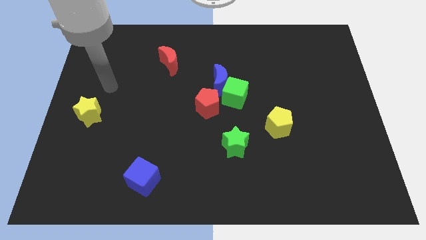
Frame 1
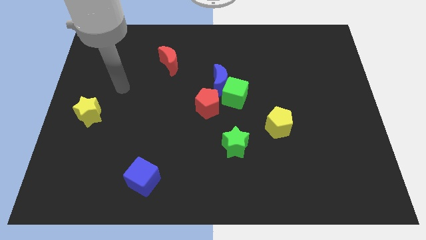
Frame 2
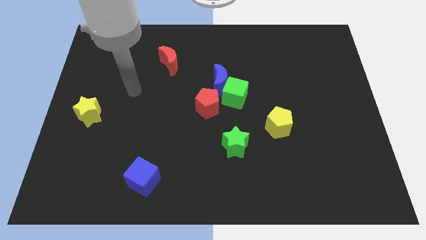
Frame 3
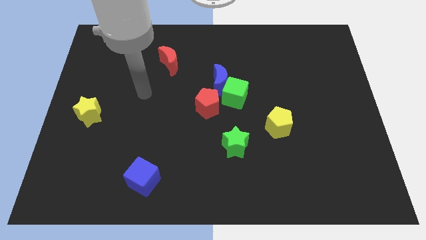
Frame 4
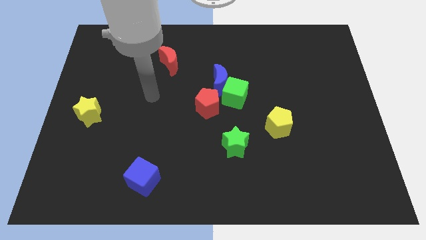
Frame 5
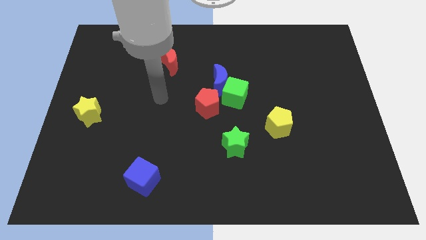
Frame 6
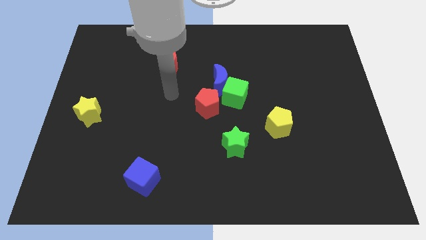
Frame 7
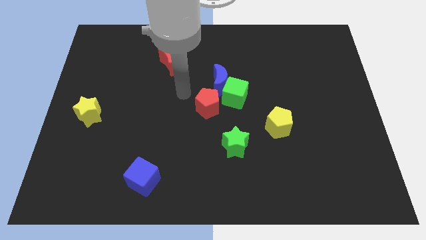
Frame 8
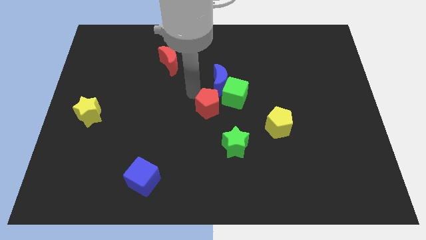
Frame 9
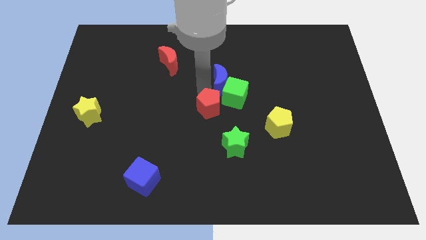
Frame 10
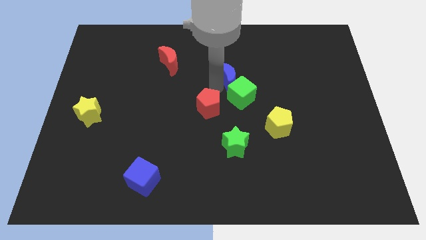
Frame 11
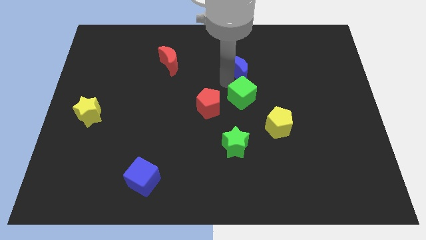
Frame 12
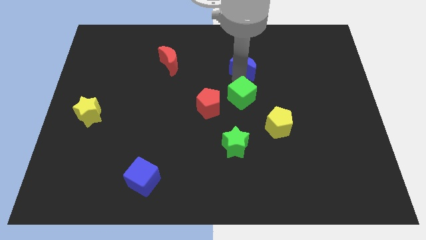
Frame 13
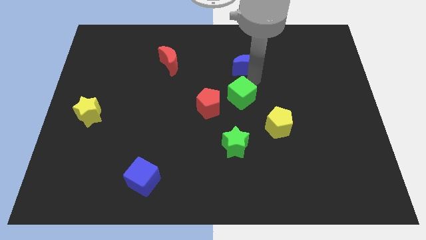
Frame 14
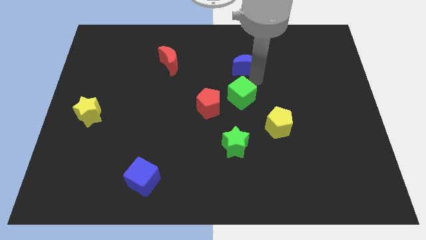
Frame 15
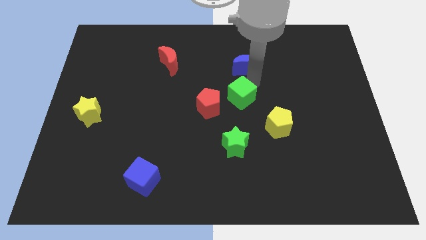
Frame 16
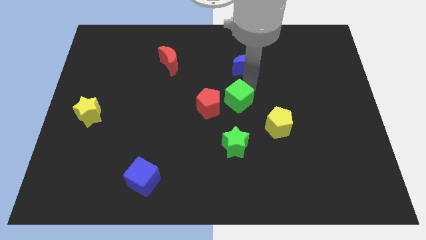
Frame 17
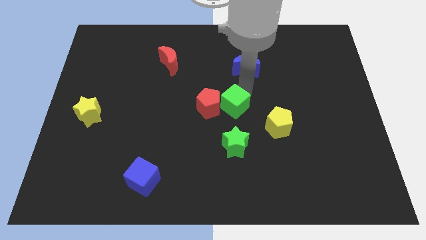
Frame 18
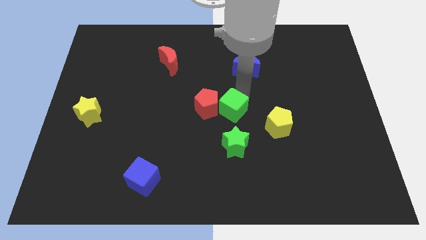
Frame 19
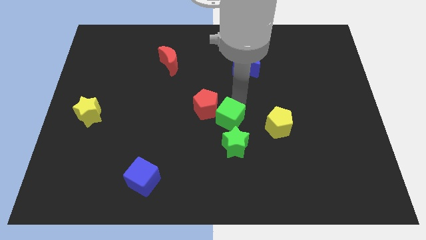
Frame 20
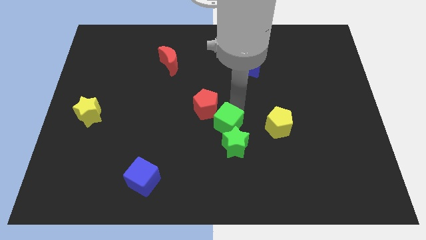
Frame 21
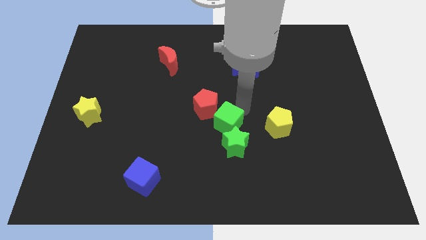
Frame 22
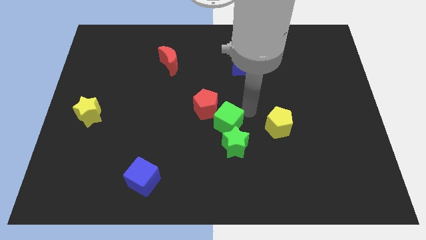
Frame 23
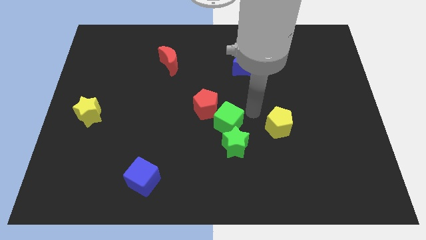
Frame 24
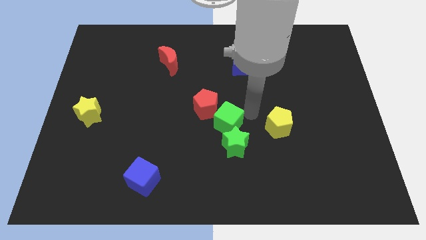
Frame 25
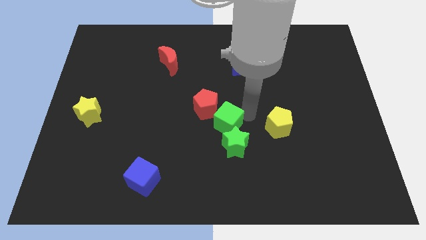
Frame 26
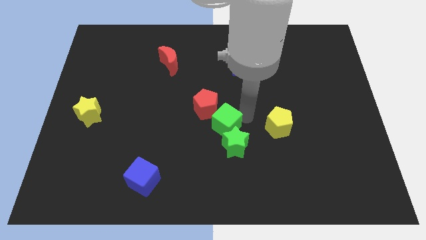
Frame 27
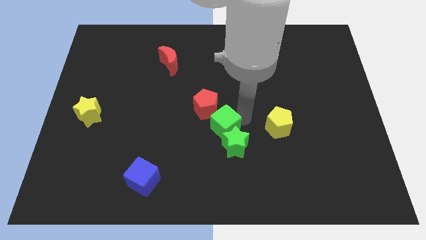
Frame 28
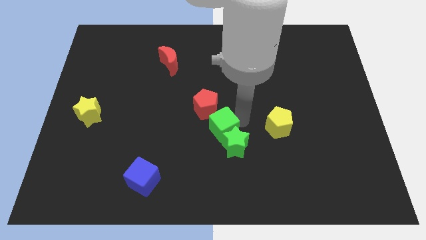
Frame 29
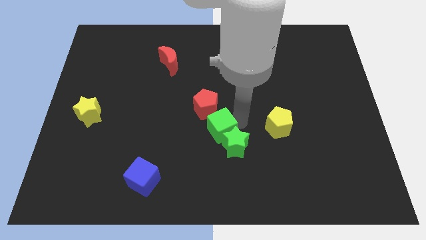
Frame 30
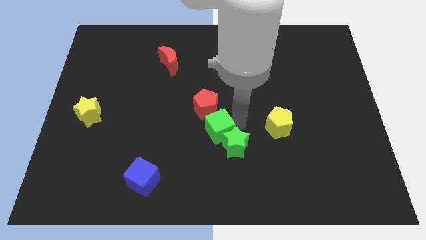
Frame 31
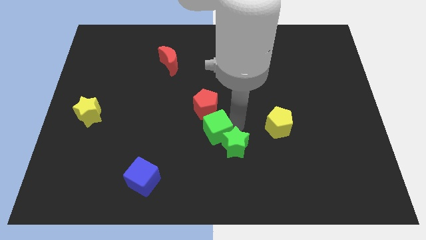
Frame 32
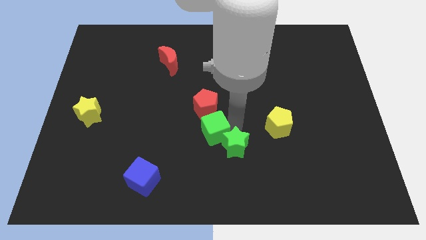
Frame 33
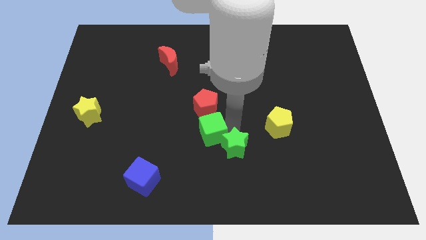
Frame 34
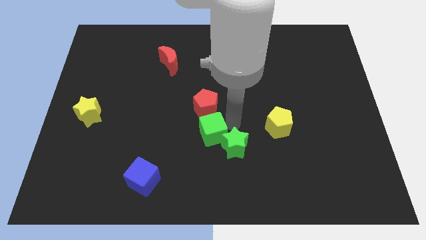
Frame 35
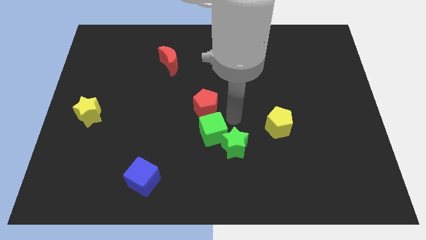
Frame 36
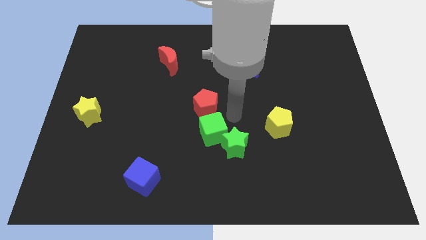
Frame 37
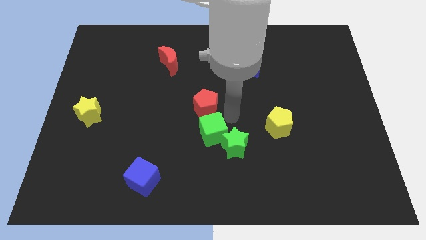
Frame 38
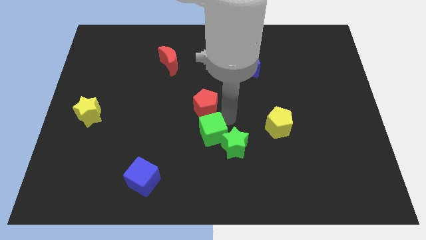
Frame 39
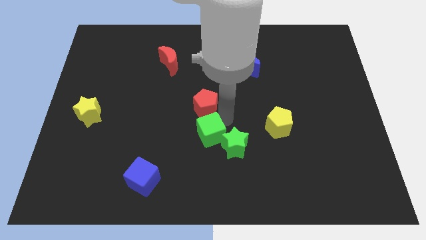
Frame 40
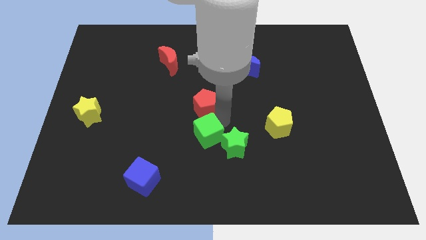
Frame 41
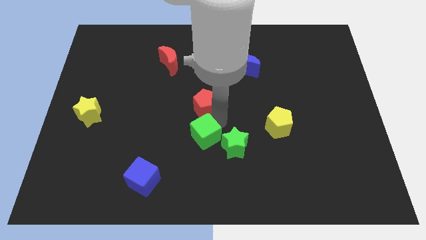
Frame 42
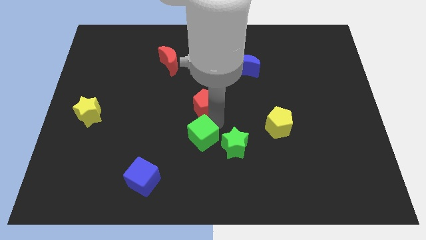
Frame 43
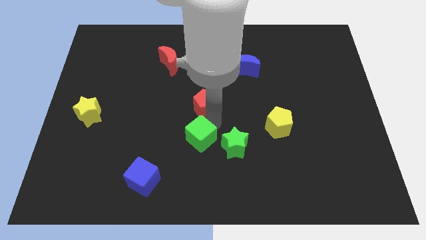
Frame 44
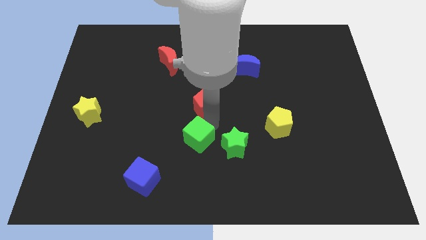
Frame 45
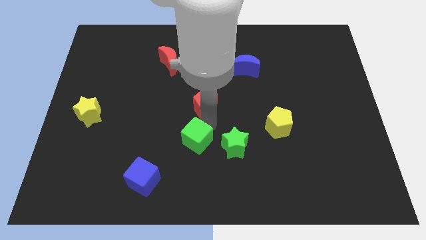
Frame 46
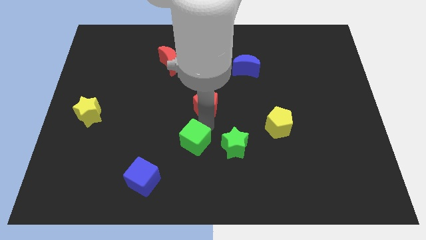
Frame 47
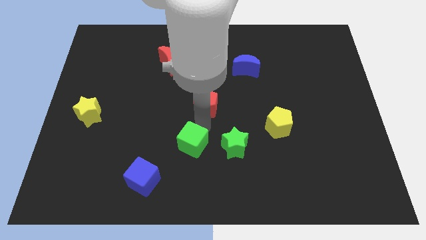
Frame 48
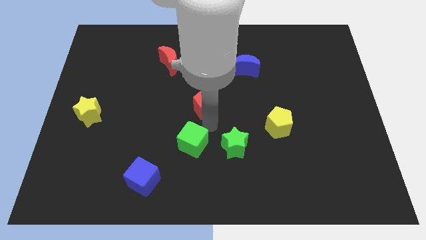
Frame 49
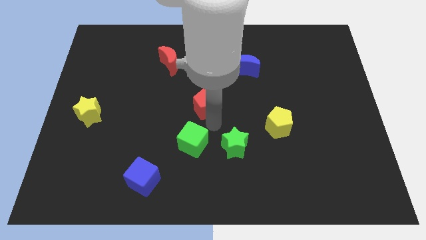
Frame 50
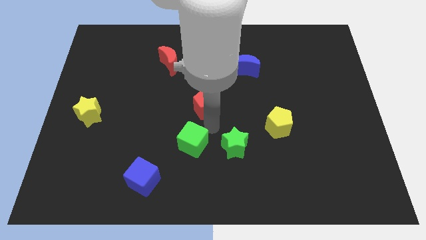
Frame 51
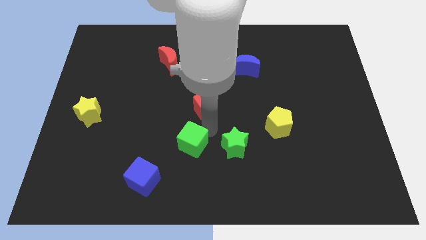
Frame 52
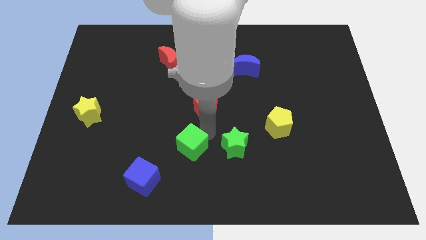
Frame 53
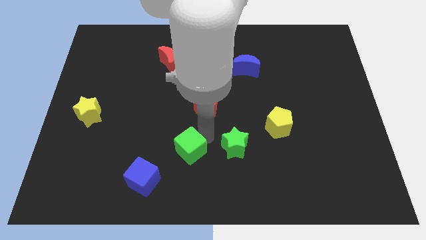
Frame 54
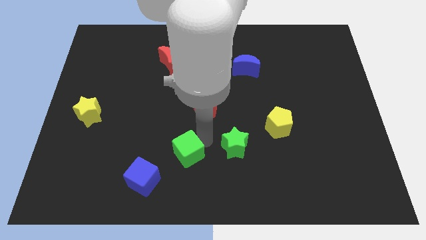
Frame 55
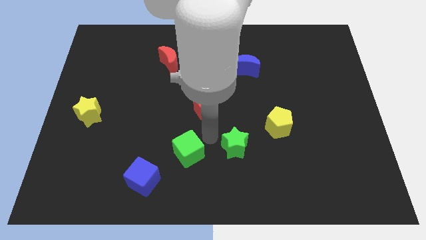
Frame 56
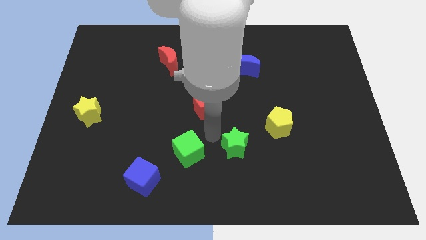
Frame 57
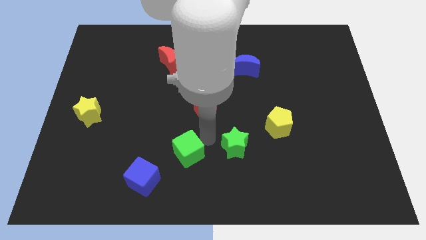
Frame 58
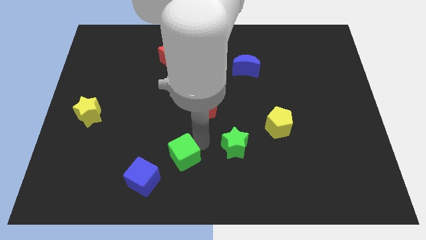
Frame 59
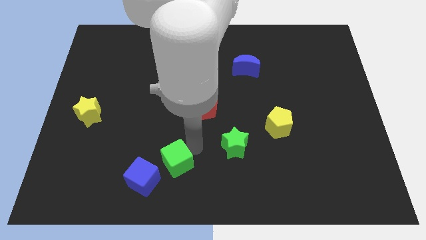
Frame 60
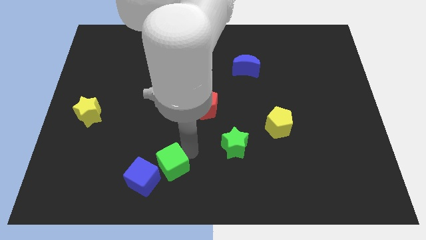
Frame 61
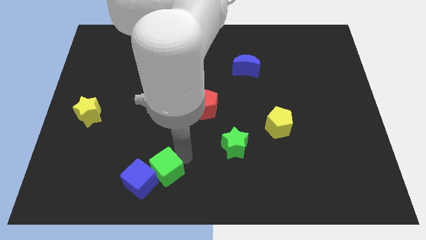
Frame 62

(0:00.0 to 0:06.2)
slide the green cube towards the blue cube

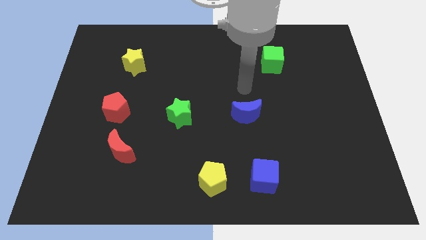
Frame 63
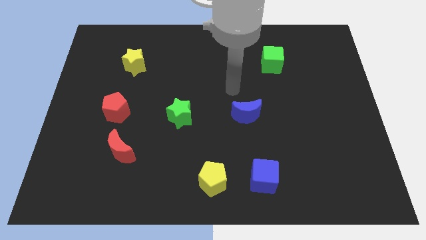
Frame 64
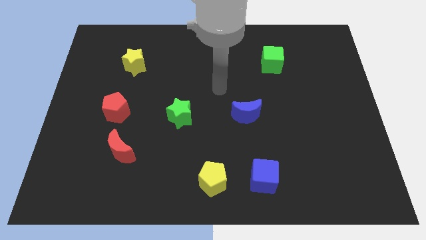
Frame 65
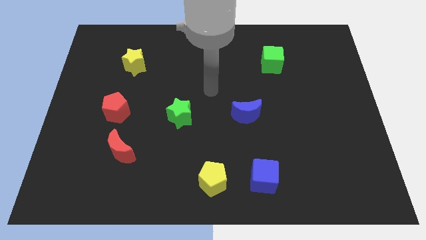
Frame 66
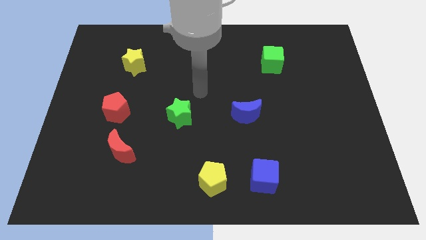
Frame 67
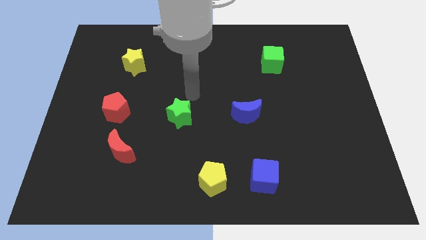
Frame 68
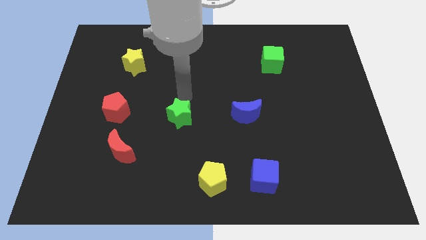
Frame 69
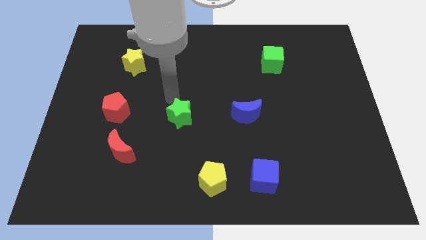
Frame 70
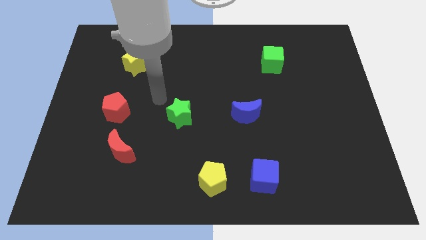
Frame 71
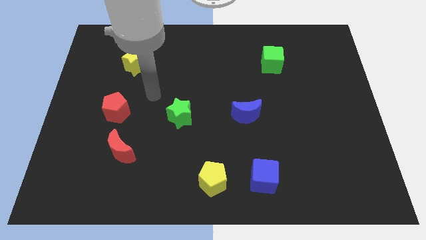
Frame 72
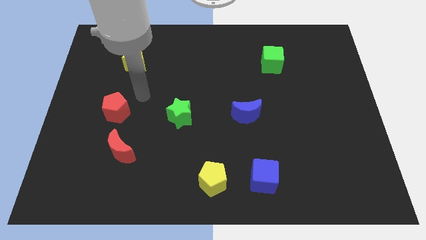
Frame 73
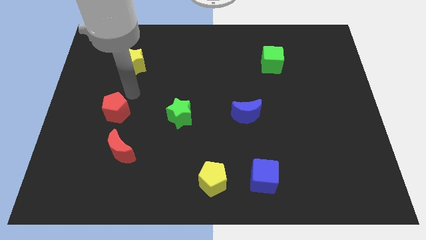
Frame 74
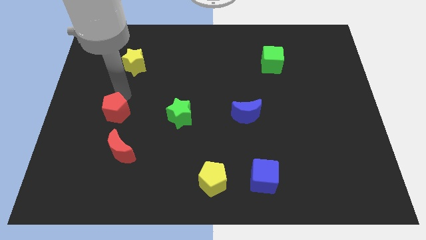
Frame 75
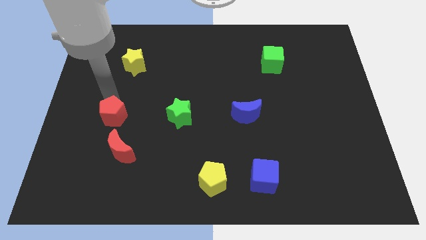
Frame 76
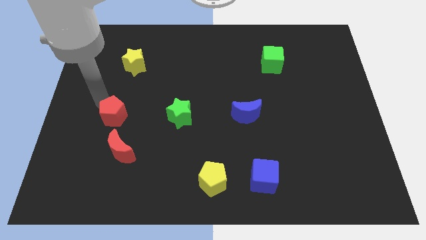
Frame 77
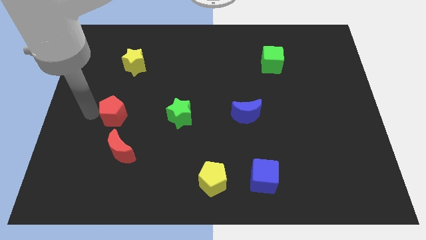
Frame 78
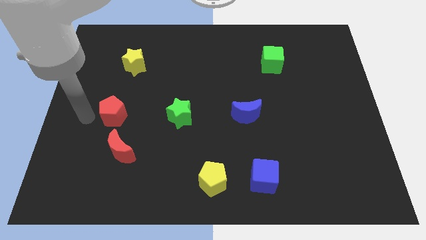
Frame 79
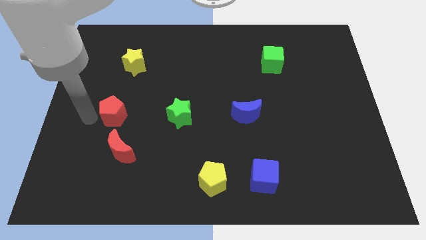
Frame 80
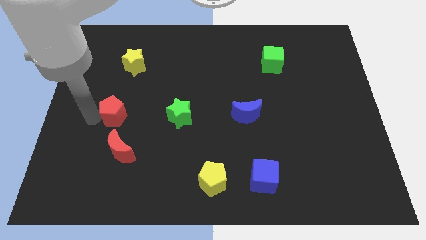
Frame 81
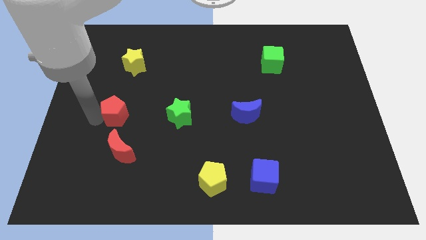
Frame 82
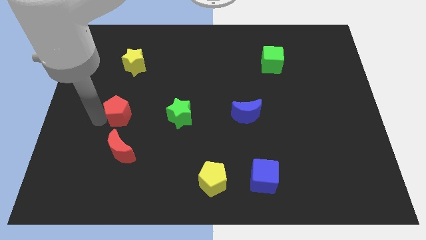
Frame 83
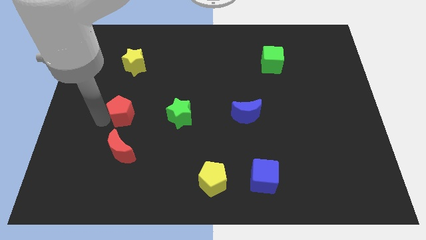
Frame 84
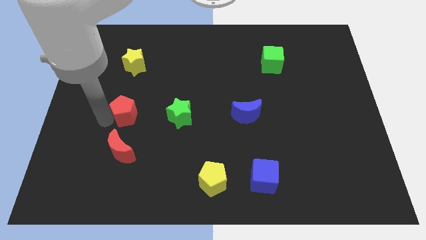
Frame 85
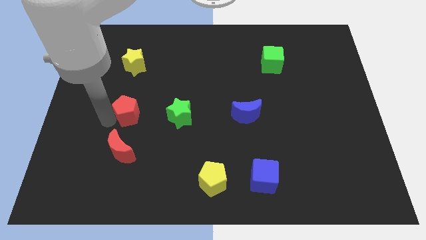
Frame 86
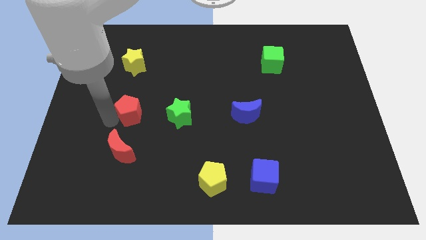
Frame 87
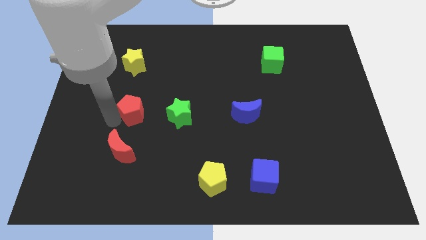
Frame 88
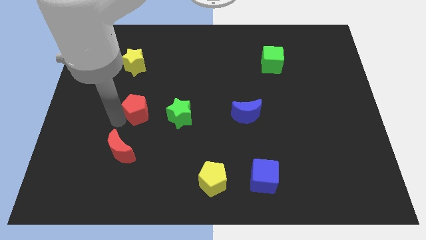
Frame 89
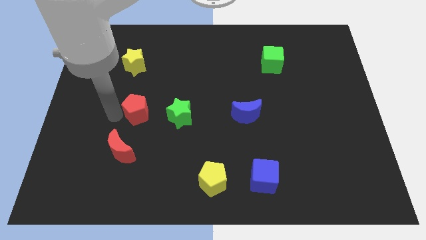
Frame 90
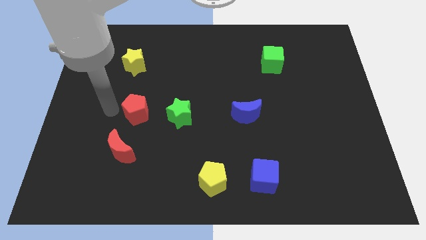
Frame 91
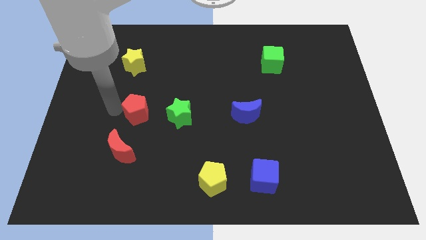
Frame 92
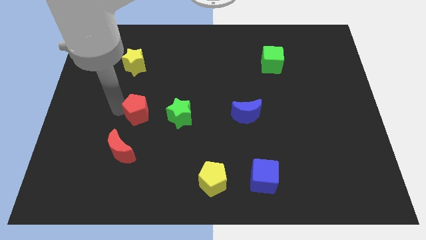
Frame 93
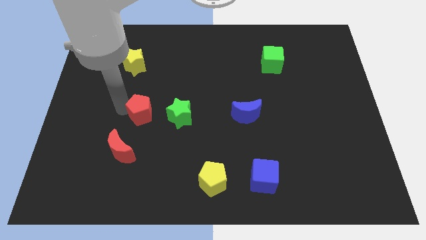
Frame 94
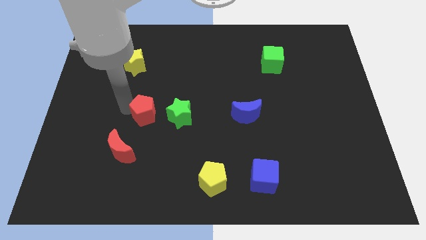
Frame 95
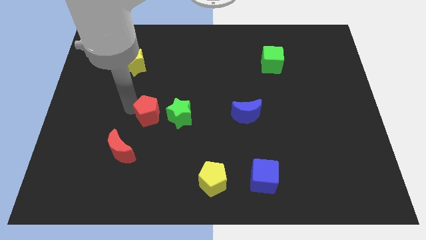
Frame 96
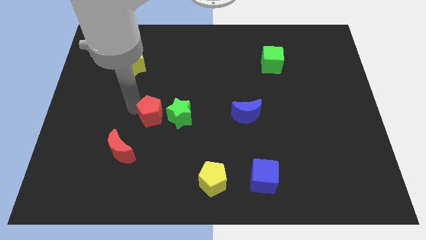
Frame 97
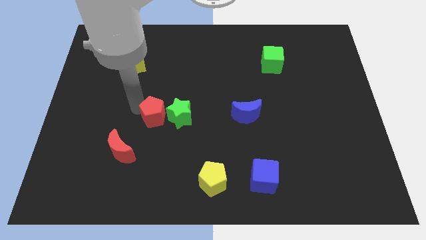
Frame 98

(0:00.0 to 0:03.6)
slide the red pentagon next to the green star
